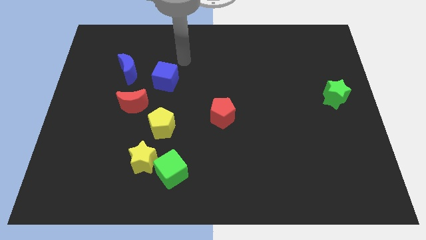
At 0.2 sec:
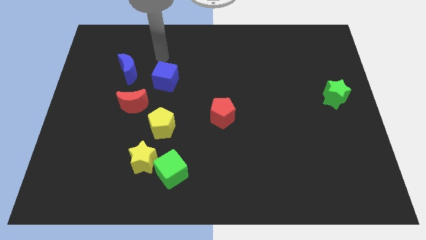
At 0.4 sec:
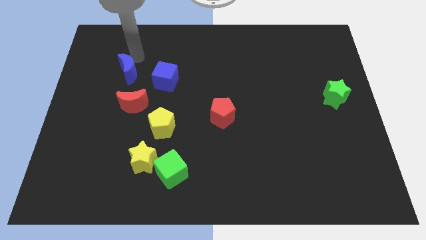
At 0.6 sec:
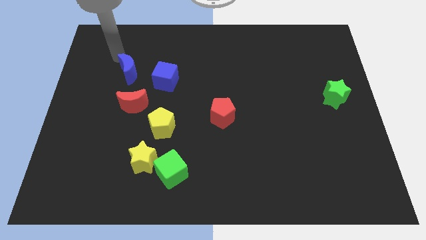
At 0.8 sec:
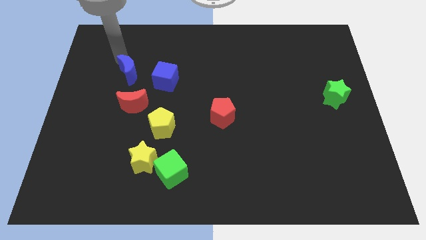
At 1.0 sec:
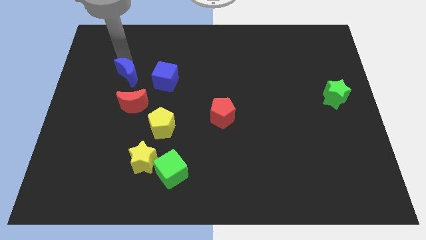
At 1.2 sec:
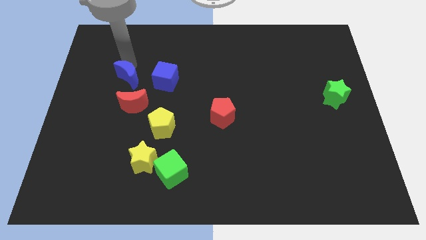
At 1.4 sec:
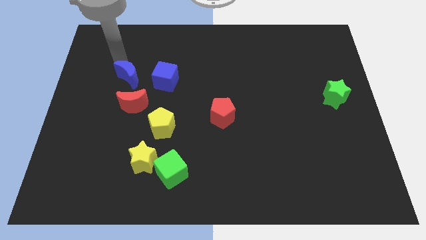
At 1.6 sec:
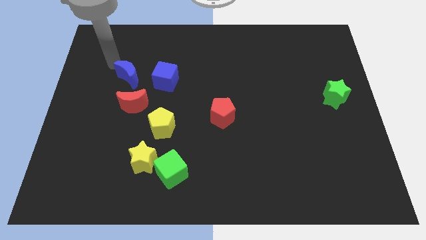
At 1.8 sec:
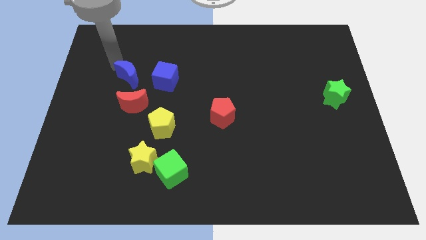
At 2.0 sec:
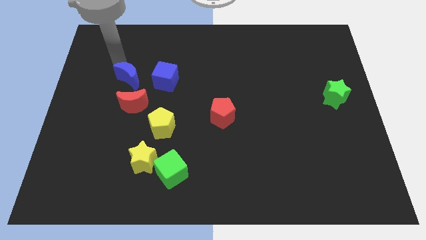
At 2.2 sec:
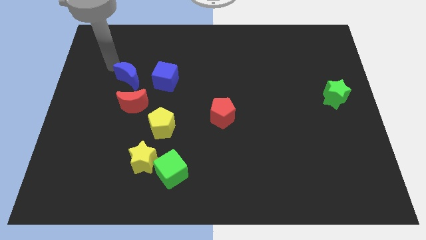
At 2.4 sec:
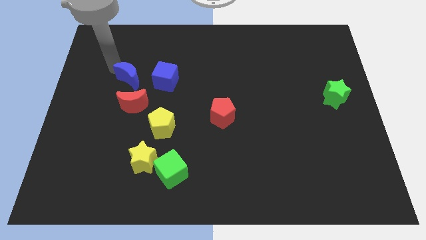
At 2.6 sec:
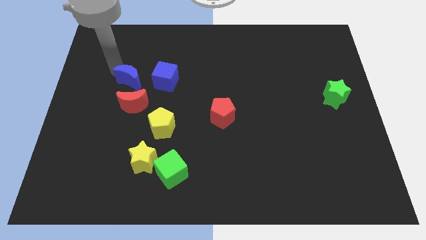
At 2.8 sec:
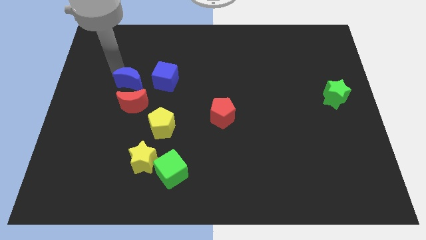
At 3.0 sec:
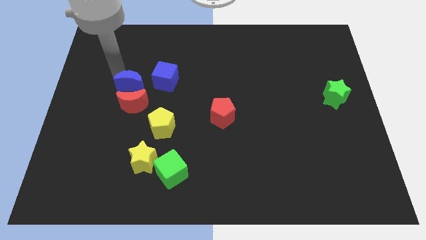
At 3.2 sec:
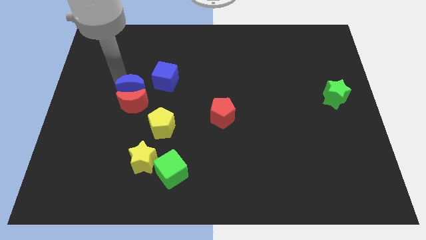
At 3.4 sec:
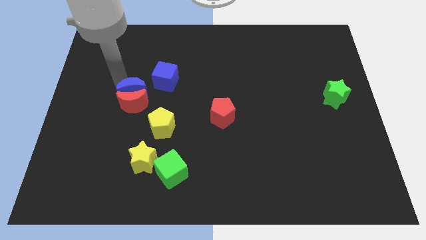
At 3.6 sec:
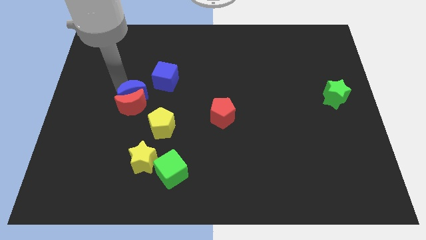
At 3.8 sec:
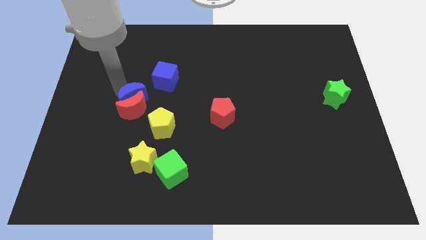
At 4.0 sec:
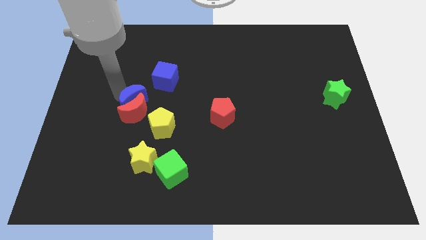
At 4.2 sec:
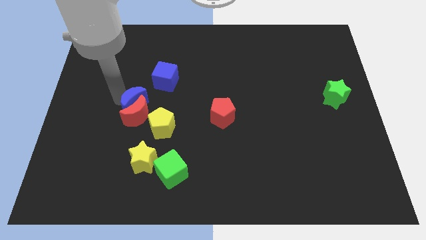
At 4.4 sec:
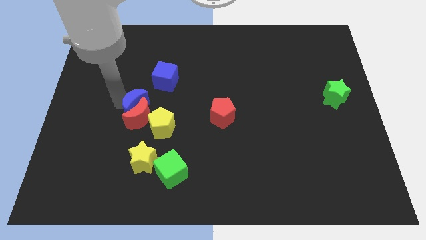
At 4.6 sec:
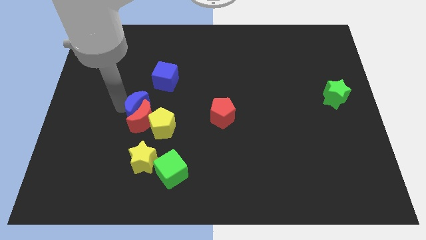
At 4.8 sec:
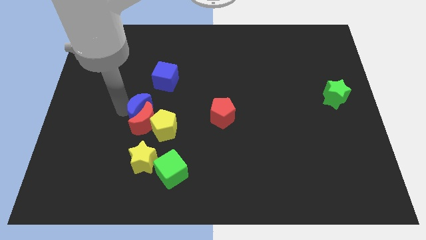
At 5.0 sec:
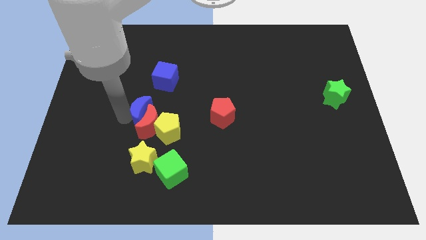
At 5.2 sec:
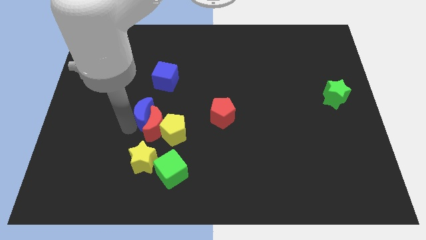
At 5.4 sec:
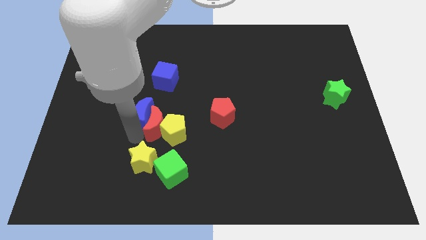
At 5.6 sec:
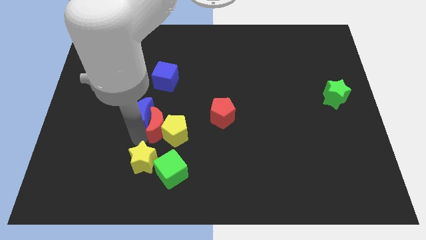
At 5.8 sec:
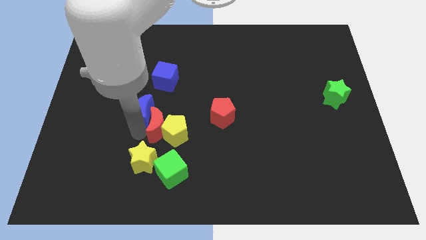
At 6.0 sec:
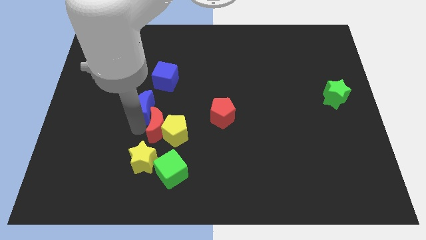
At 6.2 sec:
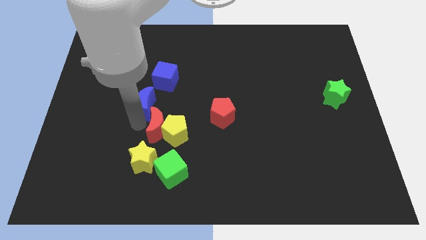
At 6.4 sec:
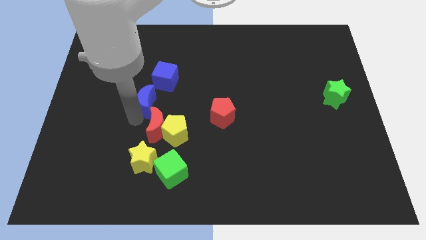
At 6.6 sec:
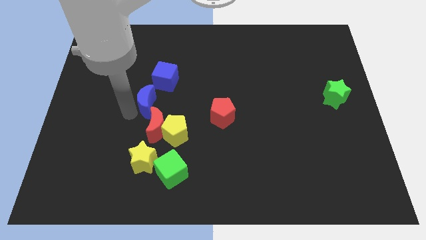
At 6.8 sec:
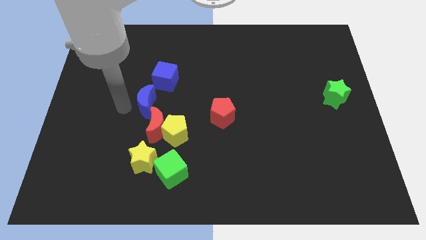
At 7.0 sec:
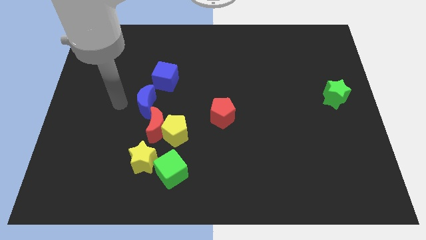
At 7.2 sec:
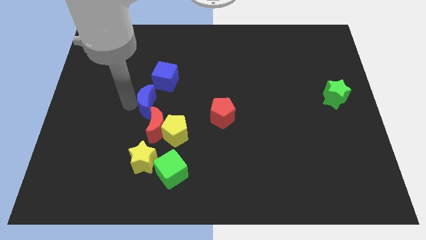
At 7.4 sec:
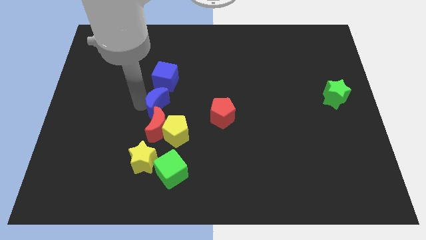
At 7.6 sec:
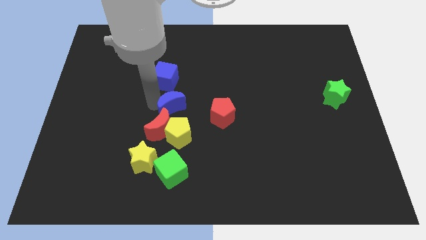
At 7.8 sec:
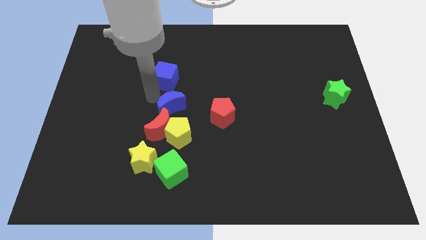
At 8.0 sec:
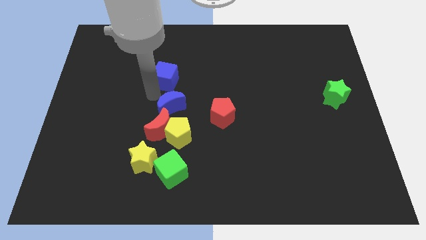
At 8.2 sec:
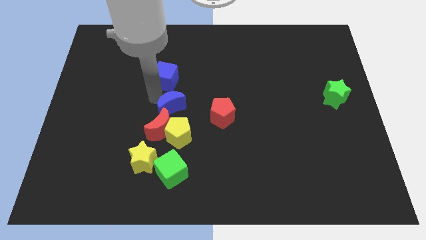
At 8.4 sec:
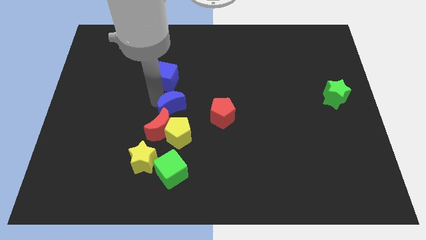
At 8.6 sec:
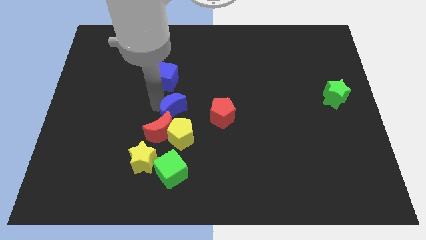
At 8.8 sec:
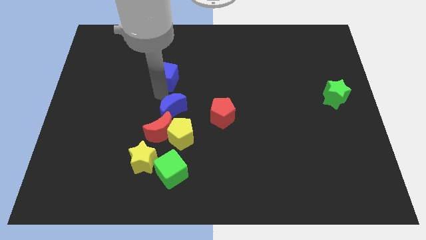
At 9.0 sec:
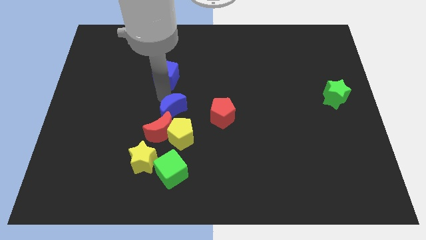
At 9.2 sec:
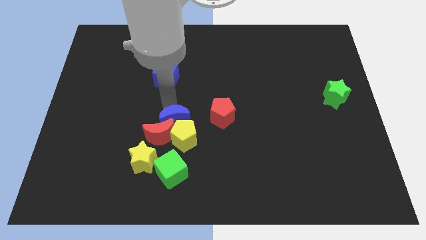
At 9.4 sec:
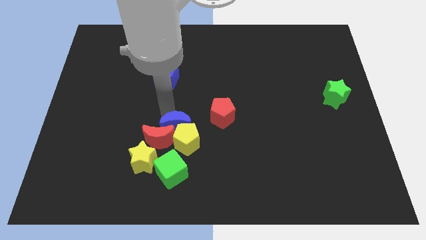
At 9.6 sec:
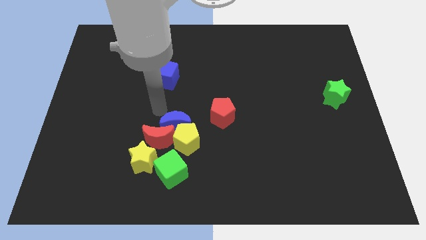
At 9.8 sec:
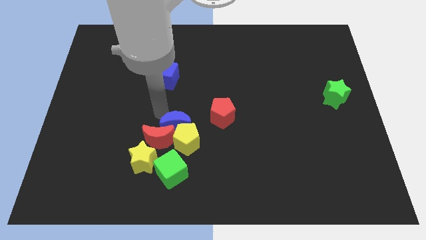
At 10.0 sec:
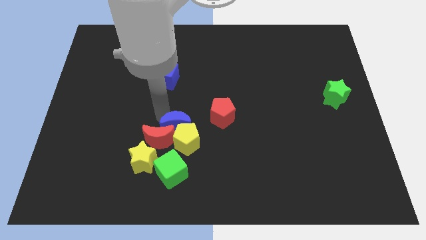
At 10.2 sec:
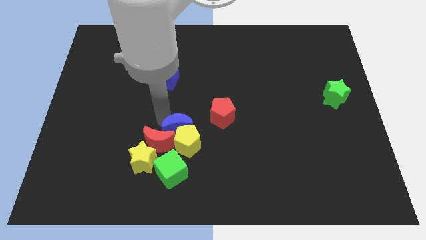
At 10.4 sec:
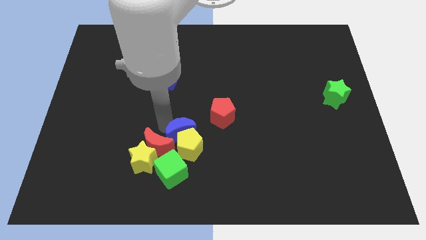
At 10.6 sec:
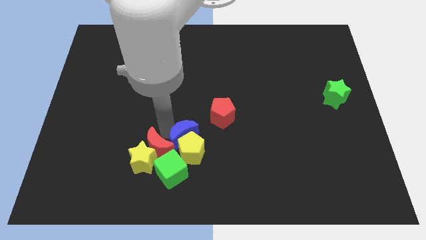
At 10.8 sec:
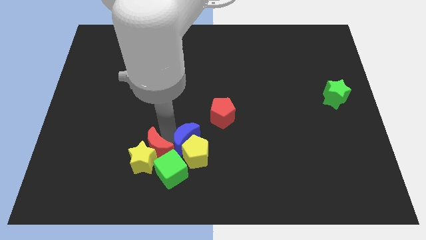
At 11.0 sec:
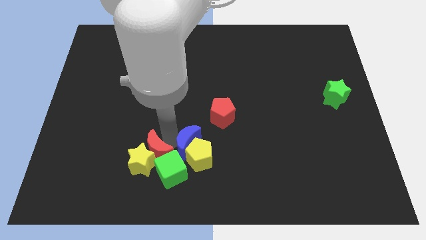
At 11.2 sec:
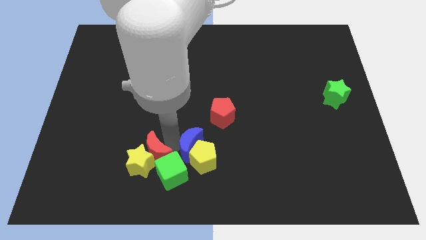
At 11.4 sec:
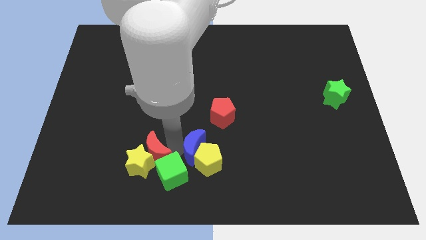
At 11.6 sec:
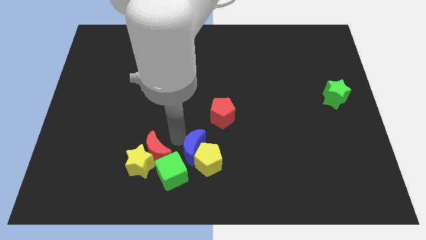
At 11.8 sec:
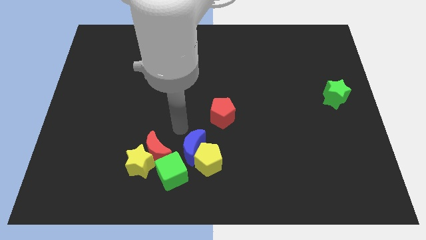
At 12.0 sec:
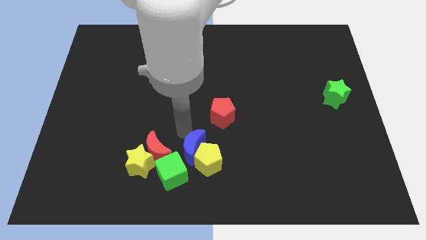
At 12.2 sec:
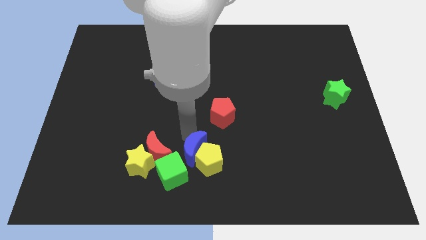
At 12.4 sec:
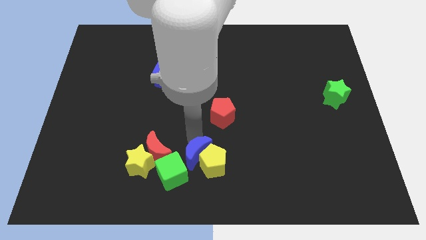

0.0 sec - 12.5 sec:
push the blue moon to the bottom side
